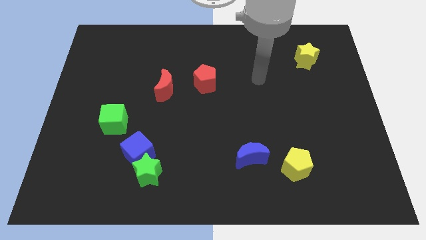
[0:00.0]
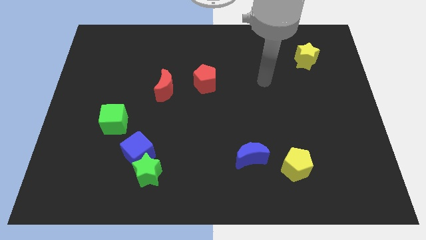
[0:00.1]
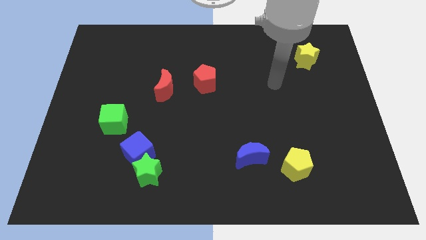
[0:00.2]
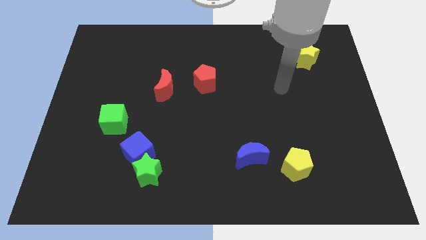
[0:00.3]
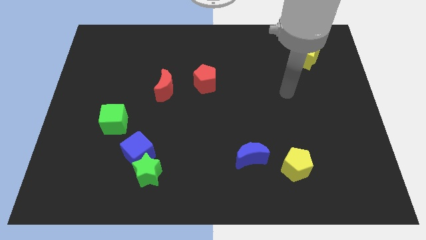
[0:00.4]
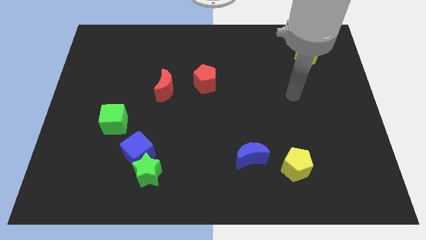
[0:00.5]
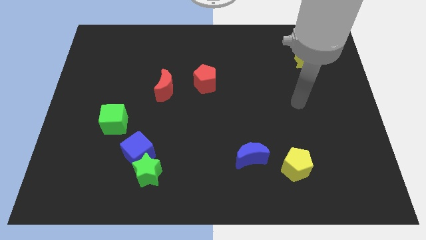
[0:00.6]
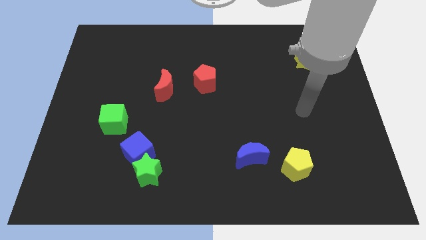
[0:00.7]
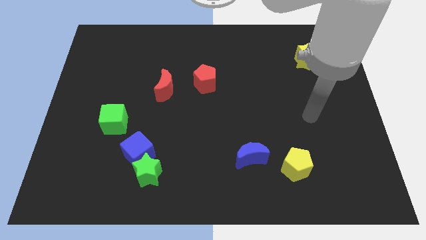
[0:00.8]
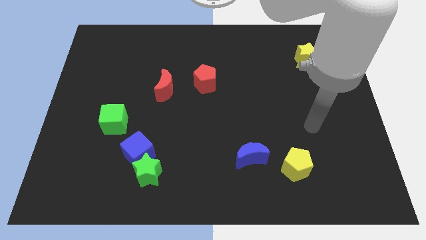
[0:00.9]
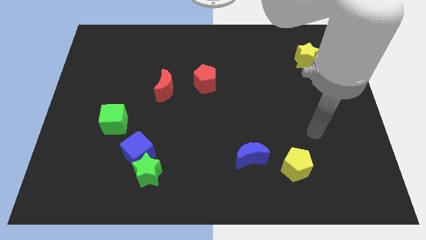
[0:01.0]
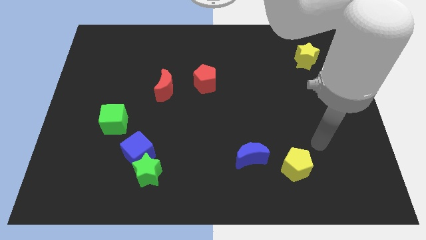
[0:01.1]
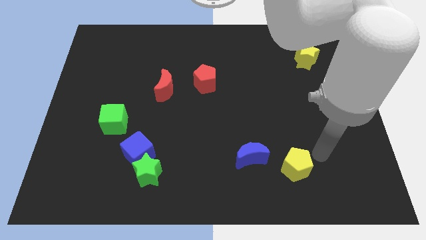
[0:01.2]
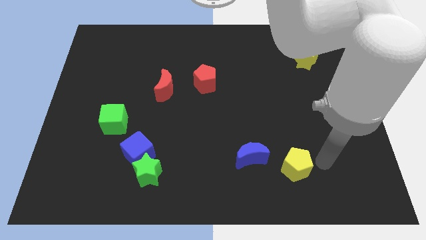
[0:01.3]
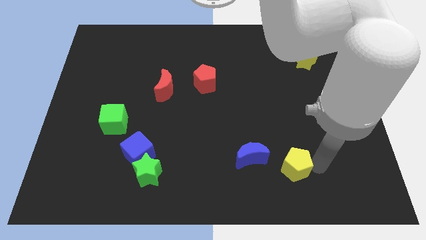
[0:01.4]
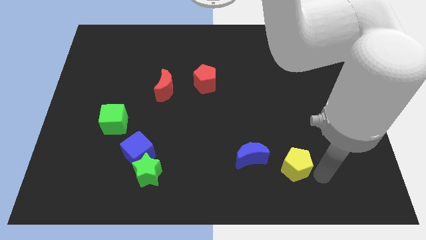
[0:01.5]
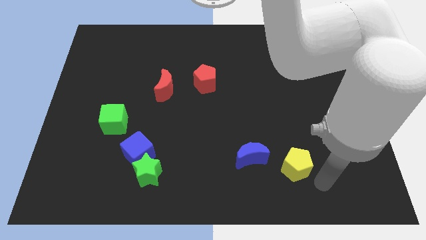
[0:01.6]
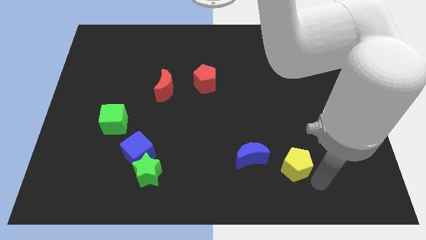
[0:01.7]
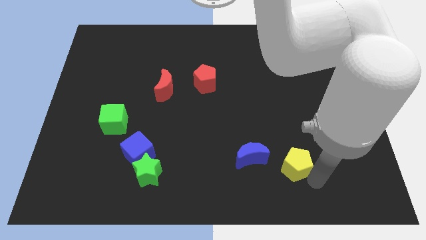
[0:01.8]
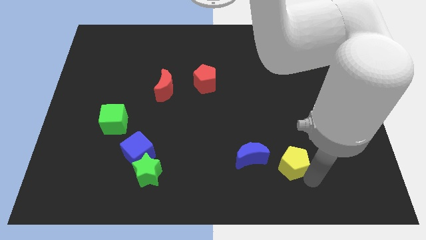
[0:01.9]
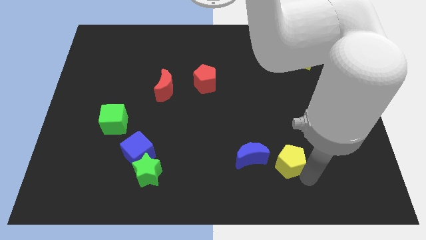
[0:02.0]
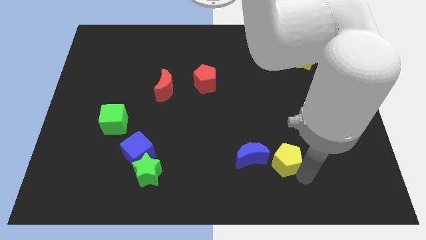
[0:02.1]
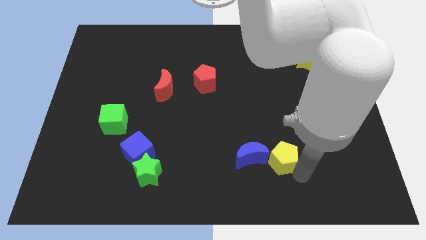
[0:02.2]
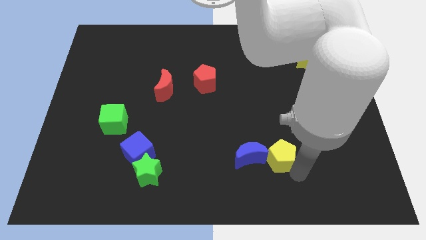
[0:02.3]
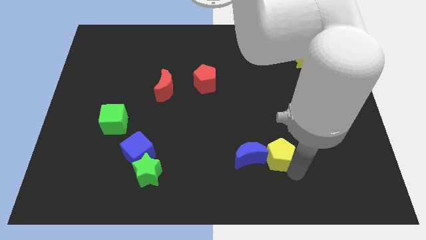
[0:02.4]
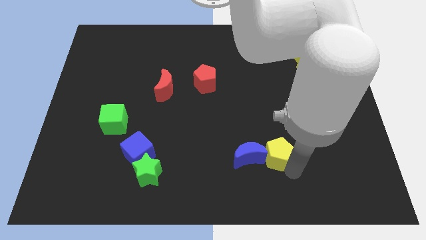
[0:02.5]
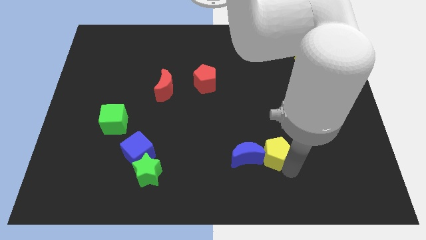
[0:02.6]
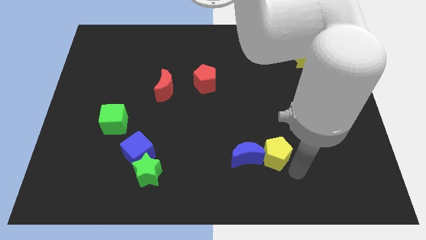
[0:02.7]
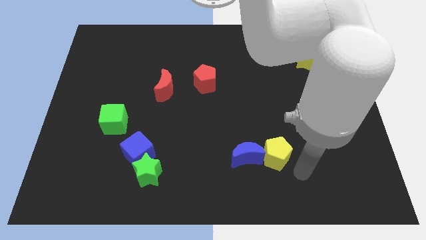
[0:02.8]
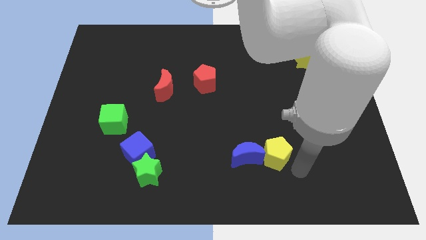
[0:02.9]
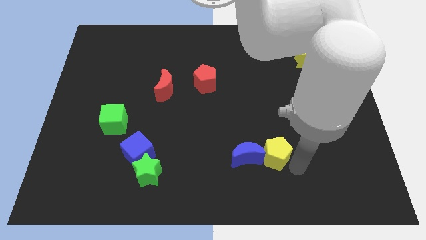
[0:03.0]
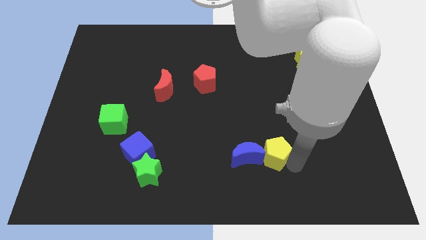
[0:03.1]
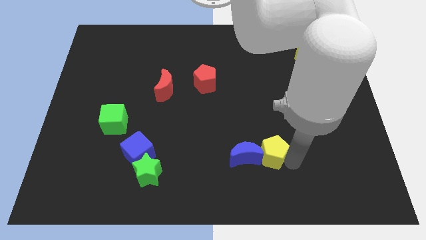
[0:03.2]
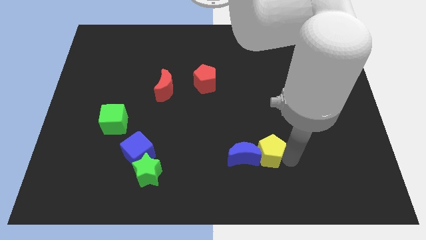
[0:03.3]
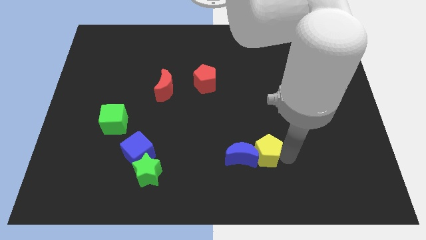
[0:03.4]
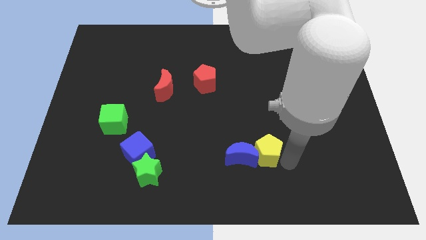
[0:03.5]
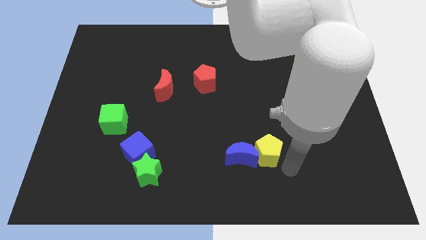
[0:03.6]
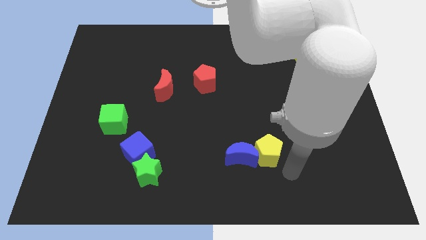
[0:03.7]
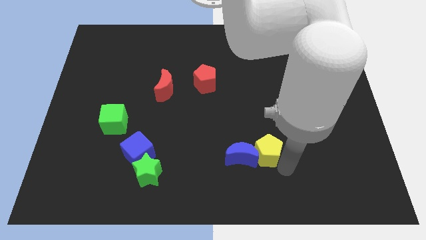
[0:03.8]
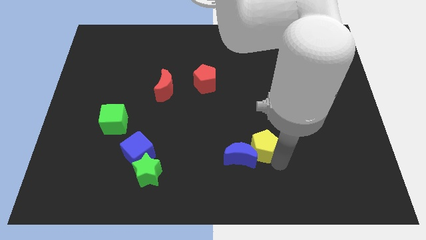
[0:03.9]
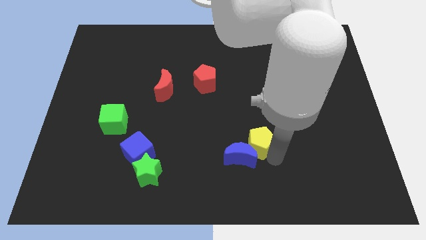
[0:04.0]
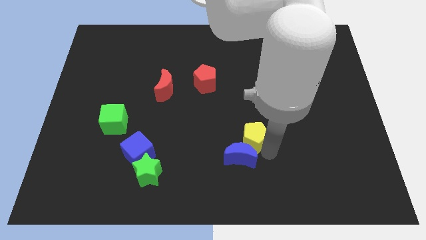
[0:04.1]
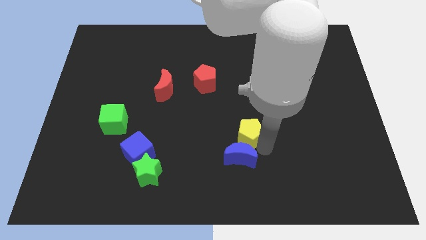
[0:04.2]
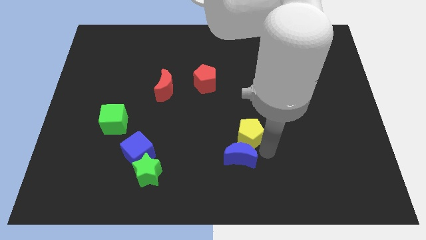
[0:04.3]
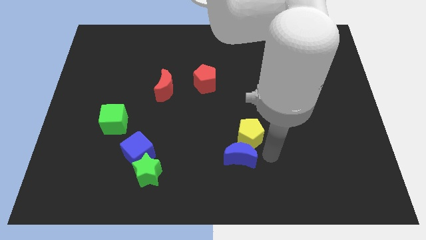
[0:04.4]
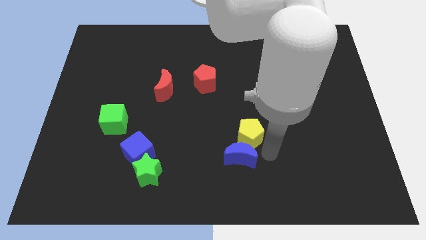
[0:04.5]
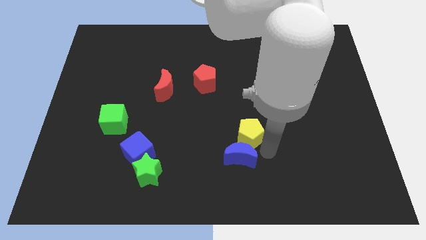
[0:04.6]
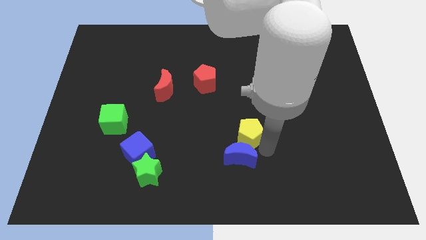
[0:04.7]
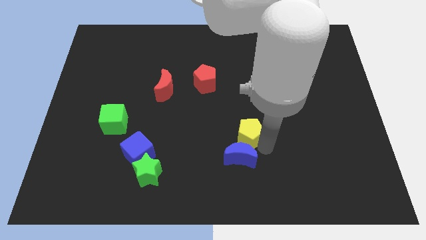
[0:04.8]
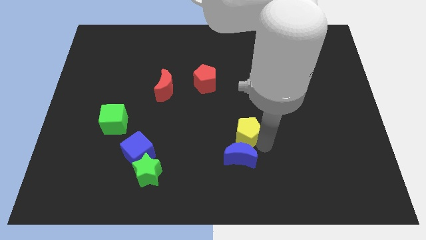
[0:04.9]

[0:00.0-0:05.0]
move the yellow pentagon to the middle

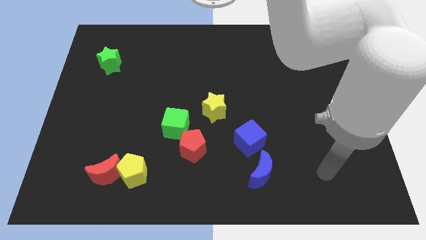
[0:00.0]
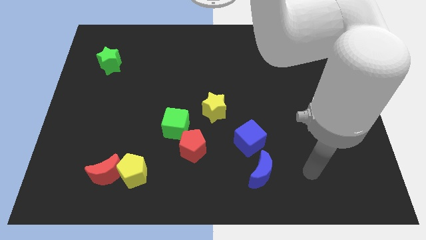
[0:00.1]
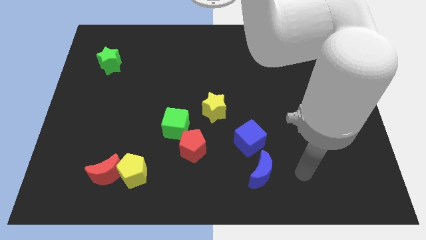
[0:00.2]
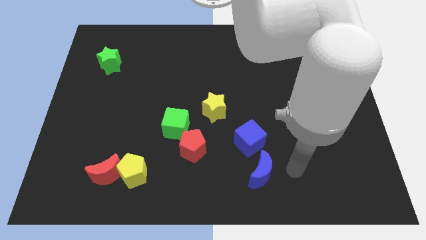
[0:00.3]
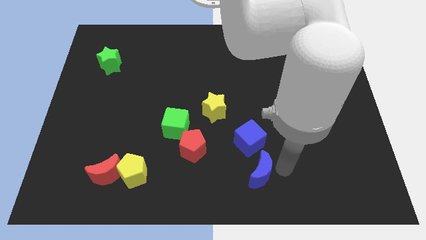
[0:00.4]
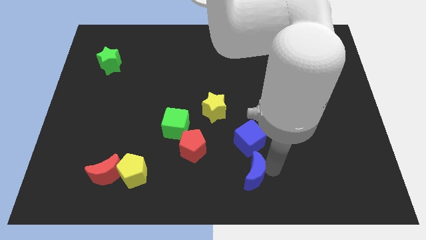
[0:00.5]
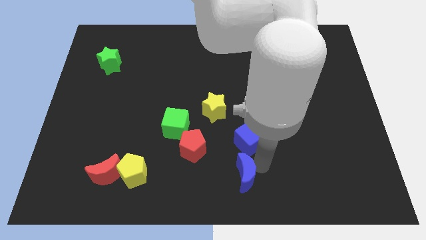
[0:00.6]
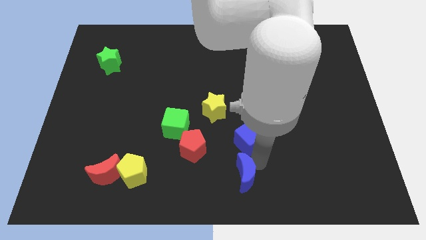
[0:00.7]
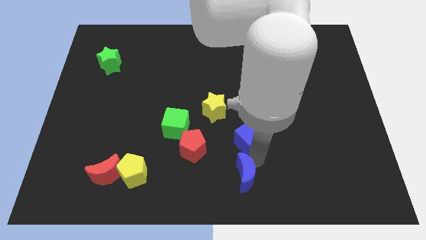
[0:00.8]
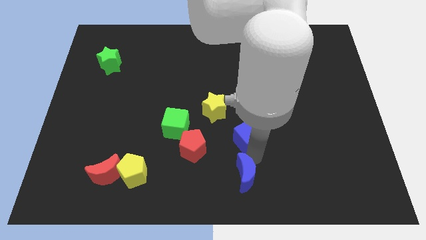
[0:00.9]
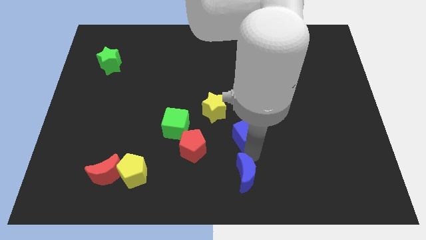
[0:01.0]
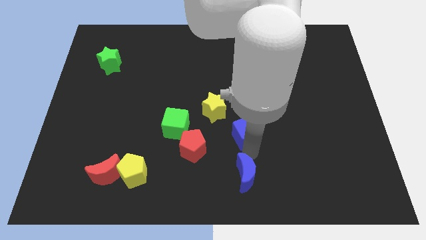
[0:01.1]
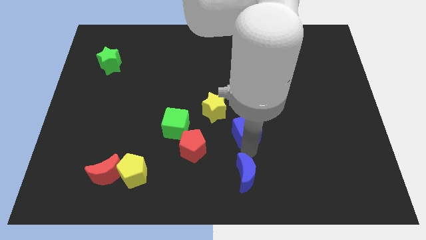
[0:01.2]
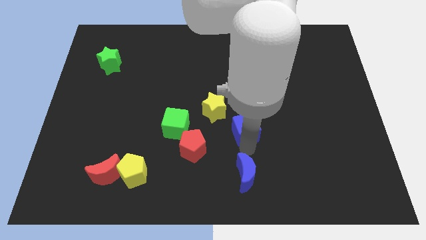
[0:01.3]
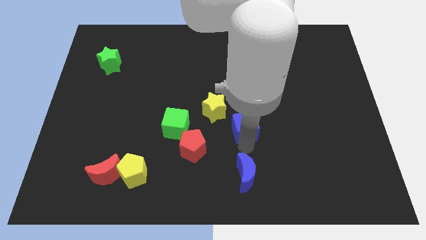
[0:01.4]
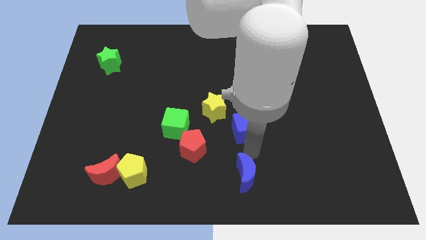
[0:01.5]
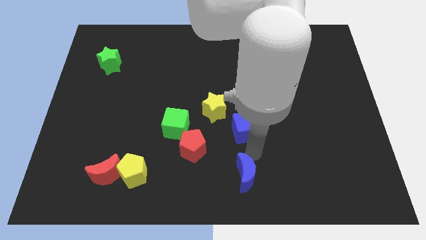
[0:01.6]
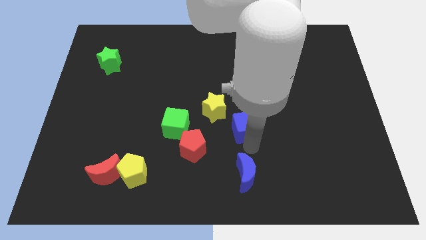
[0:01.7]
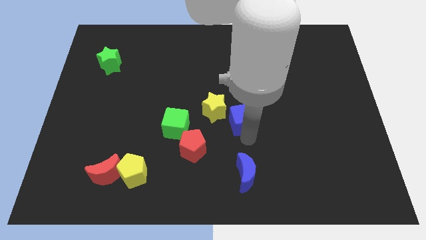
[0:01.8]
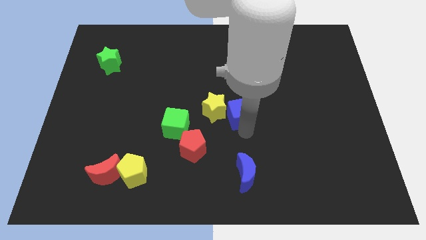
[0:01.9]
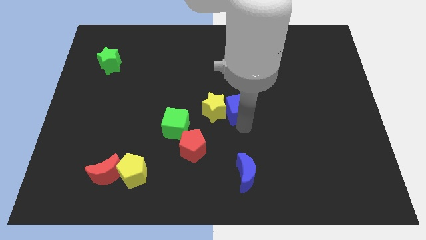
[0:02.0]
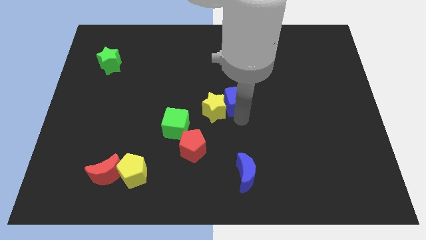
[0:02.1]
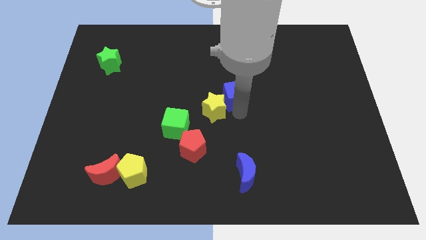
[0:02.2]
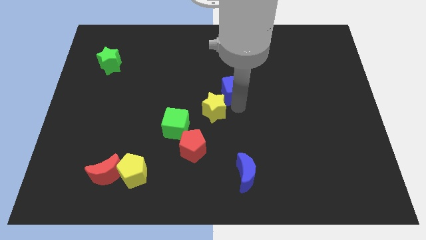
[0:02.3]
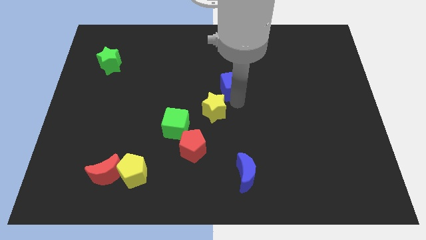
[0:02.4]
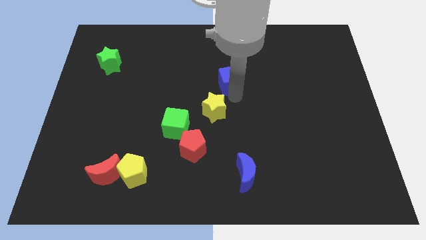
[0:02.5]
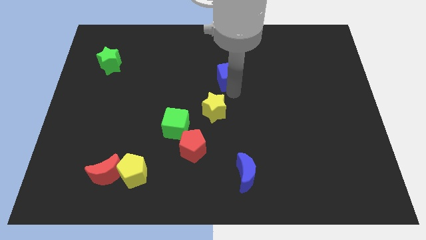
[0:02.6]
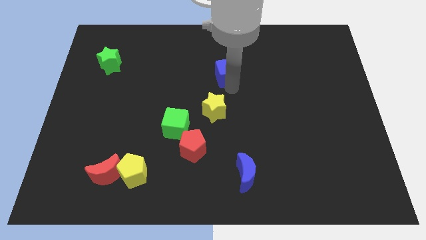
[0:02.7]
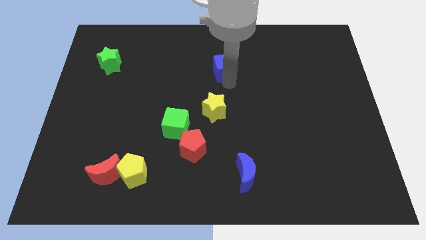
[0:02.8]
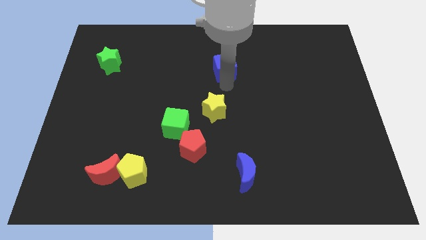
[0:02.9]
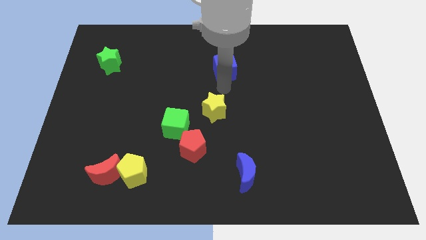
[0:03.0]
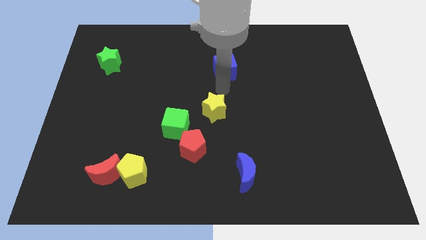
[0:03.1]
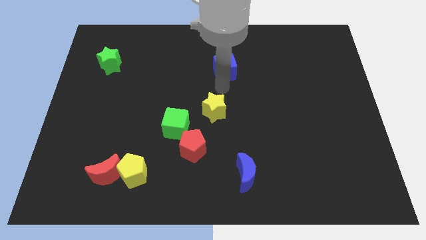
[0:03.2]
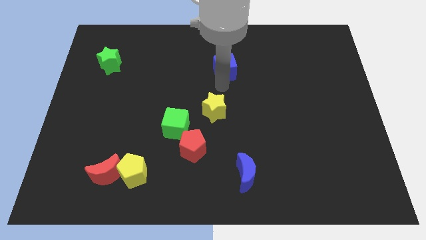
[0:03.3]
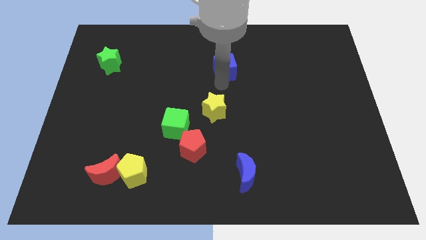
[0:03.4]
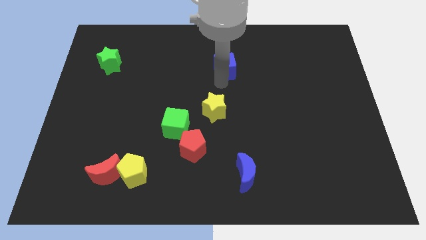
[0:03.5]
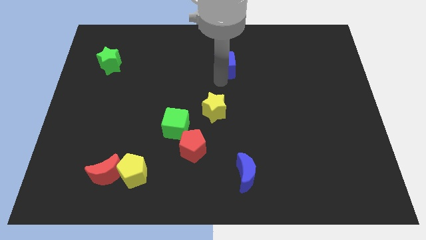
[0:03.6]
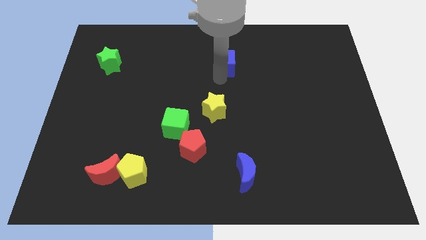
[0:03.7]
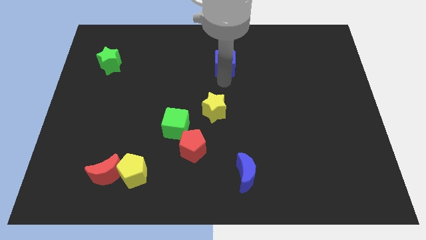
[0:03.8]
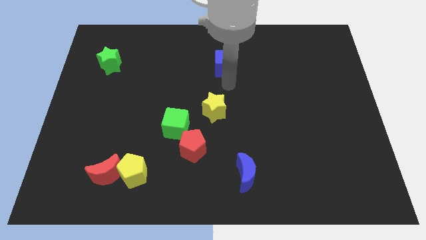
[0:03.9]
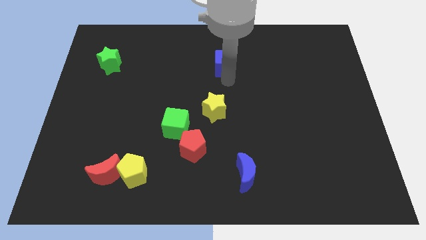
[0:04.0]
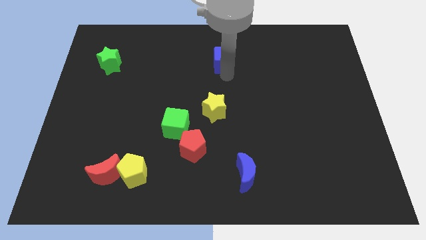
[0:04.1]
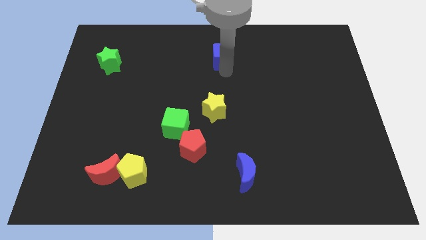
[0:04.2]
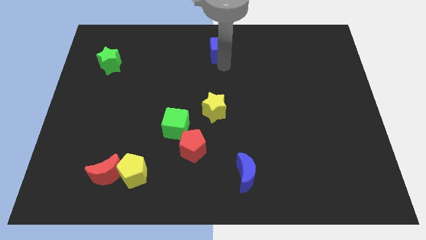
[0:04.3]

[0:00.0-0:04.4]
push the blue cube to the top
